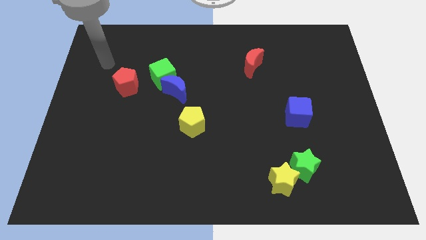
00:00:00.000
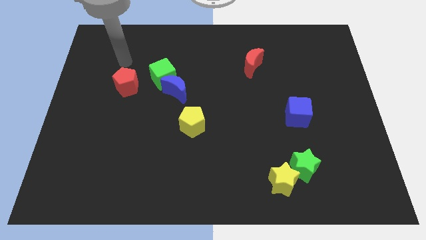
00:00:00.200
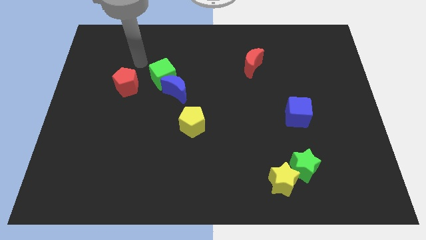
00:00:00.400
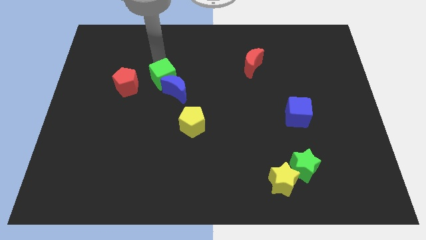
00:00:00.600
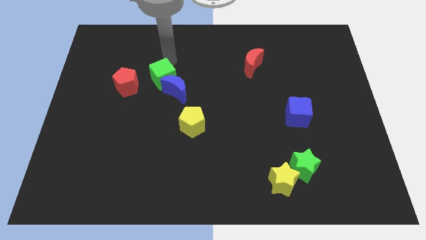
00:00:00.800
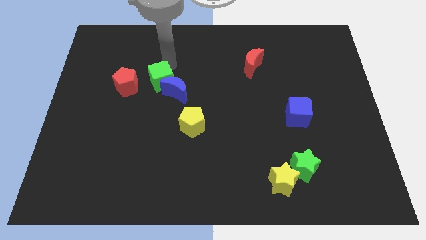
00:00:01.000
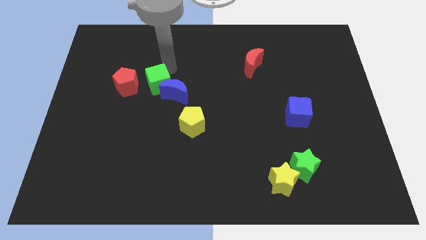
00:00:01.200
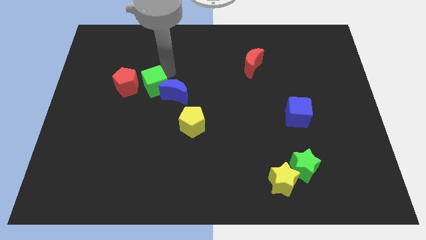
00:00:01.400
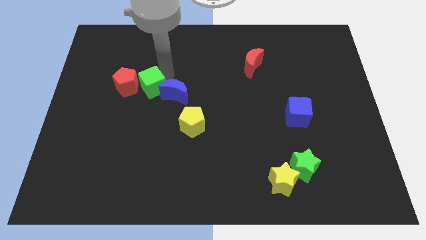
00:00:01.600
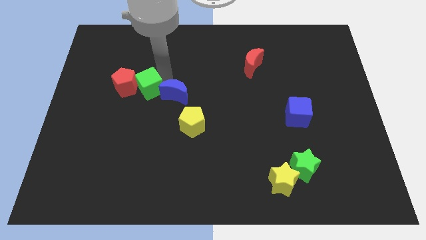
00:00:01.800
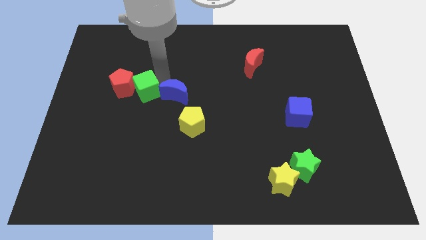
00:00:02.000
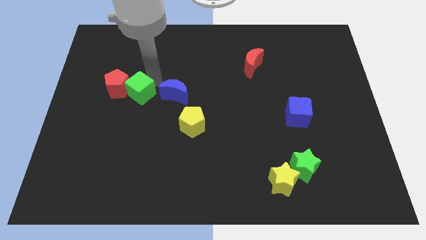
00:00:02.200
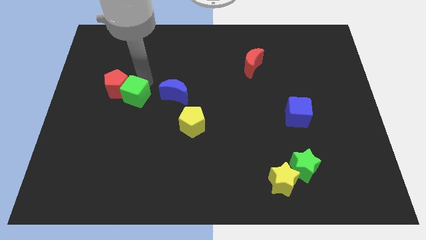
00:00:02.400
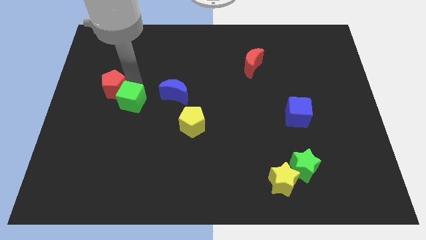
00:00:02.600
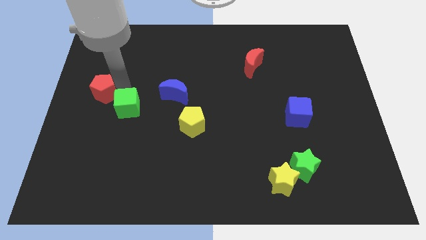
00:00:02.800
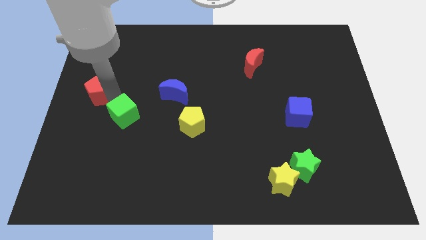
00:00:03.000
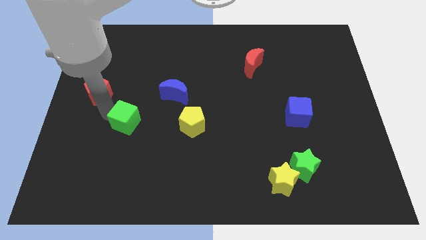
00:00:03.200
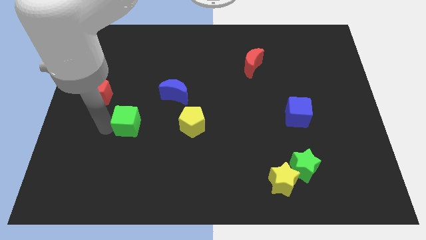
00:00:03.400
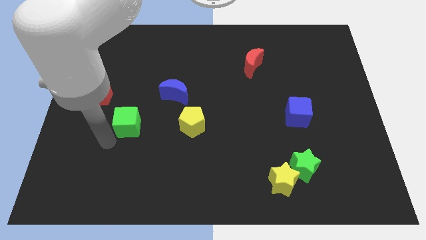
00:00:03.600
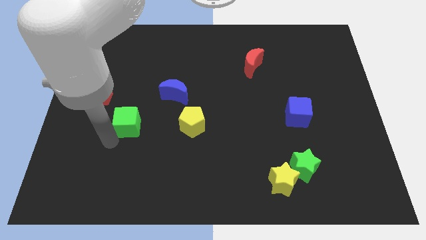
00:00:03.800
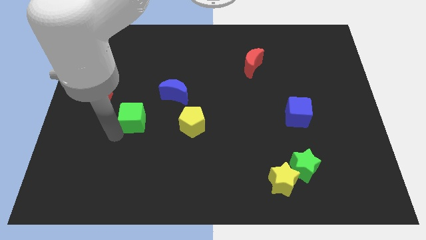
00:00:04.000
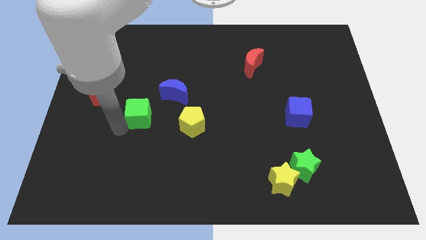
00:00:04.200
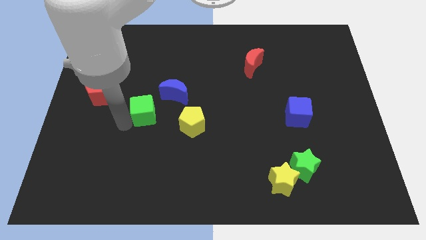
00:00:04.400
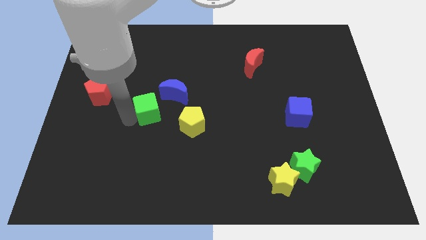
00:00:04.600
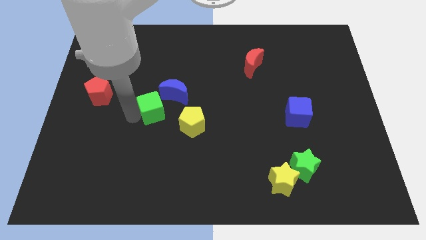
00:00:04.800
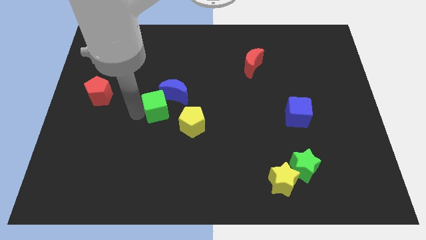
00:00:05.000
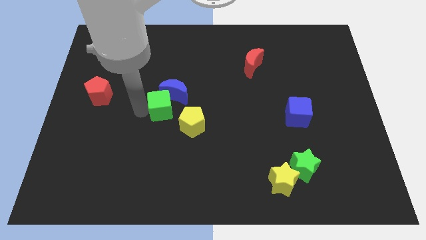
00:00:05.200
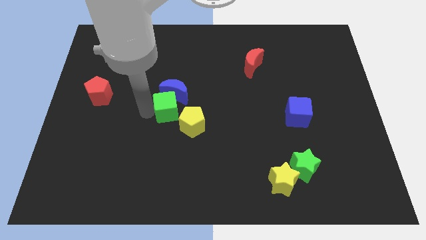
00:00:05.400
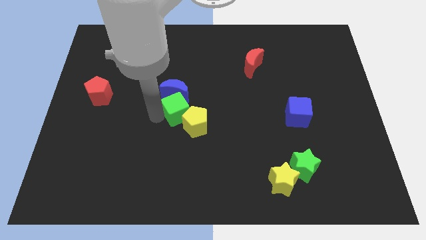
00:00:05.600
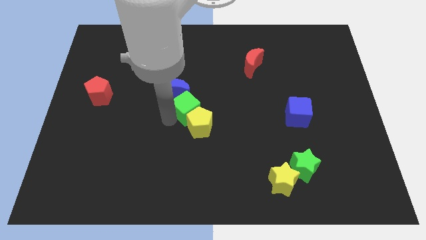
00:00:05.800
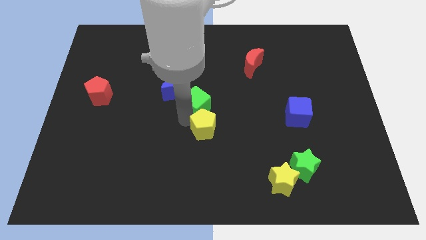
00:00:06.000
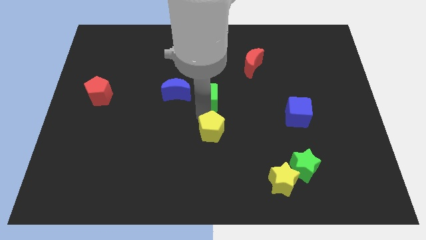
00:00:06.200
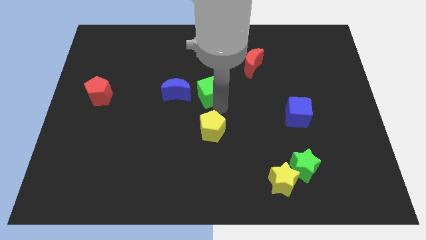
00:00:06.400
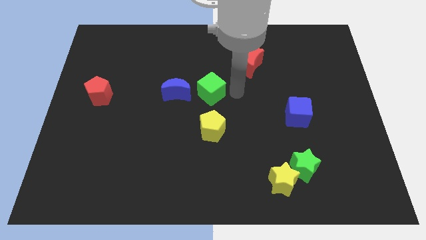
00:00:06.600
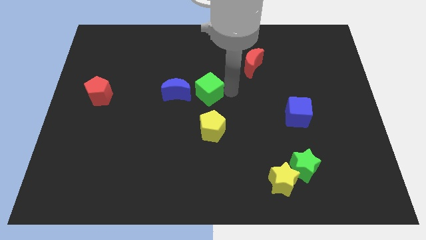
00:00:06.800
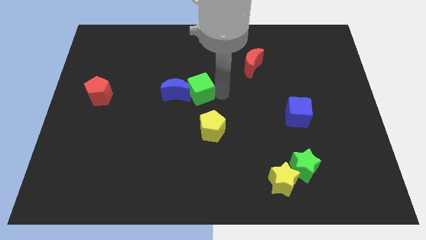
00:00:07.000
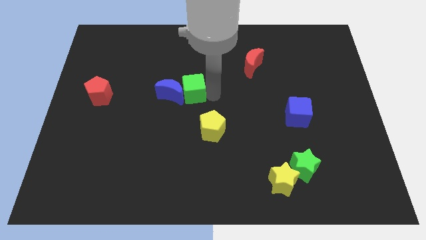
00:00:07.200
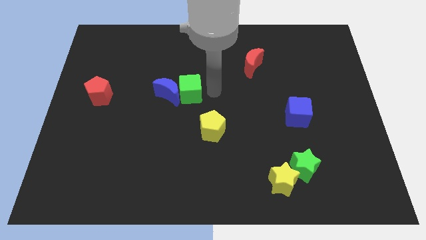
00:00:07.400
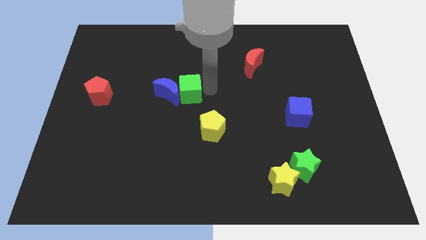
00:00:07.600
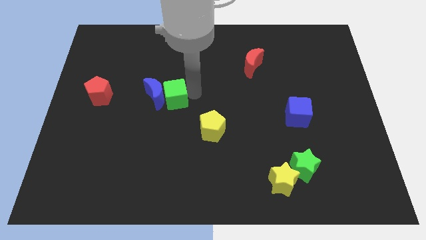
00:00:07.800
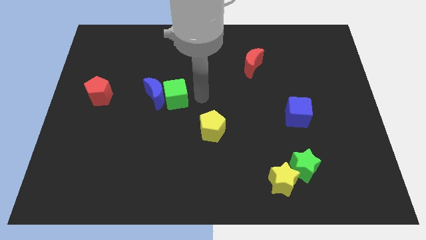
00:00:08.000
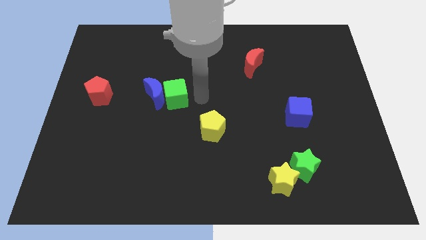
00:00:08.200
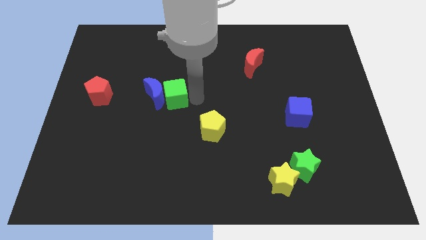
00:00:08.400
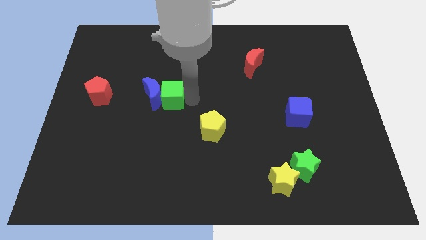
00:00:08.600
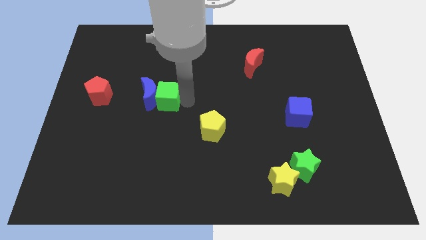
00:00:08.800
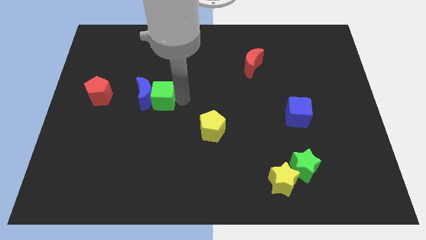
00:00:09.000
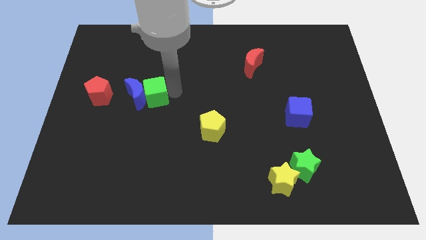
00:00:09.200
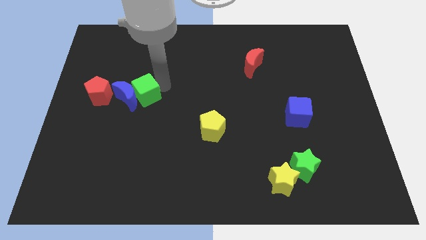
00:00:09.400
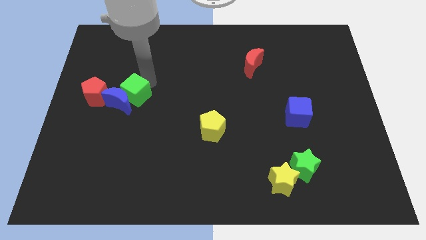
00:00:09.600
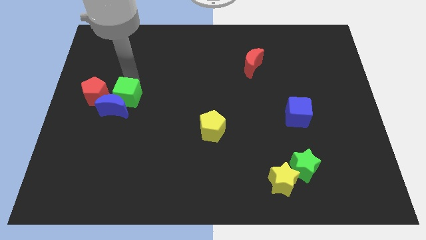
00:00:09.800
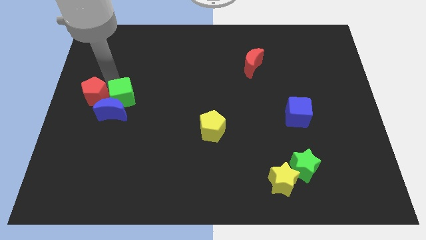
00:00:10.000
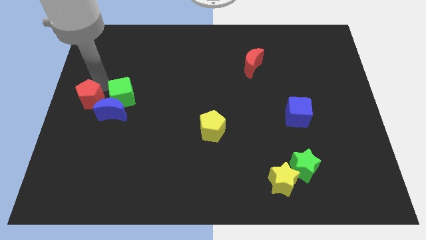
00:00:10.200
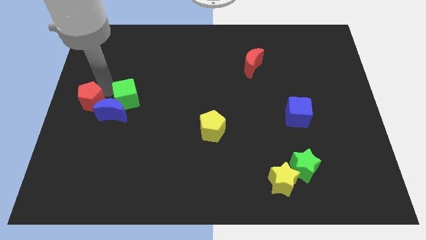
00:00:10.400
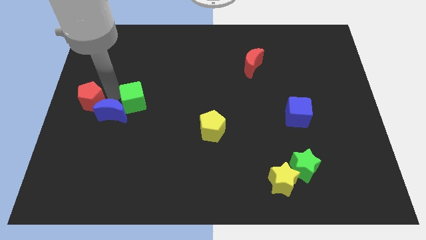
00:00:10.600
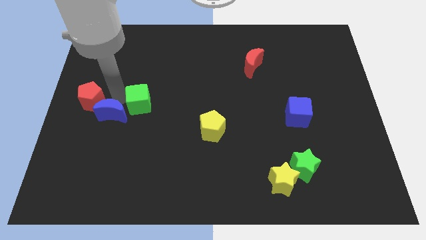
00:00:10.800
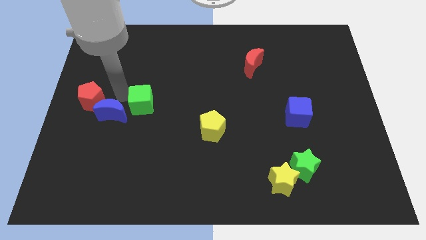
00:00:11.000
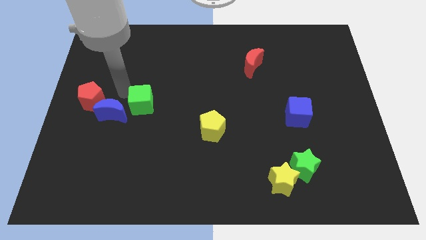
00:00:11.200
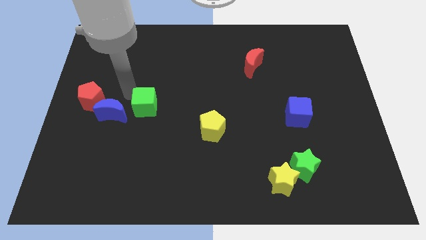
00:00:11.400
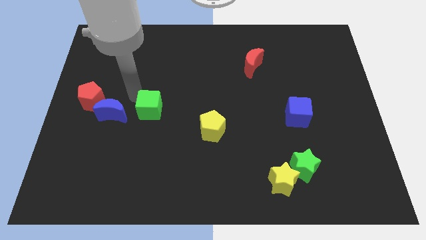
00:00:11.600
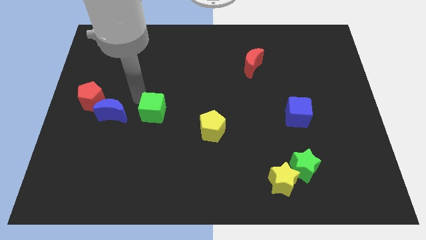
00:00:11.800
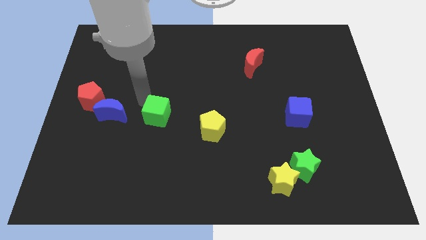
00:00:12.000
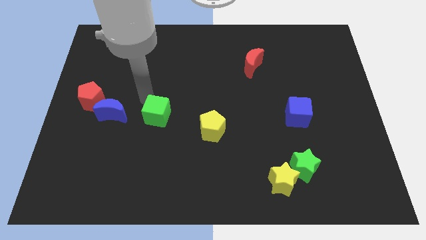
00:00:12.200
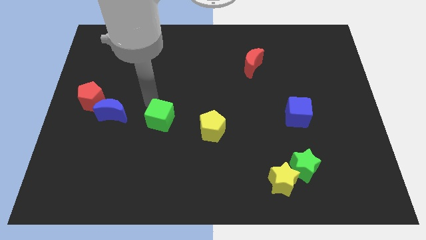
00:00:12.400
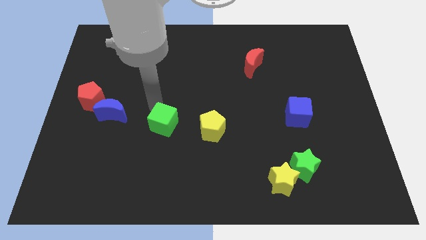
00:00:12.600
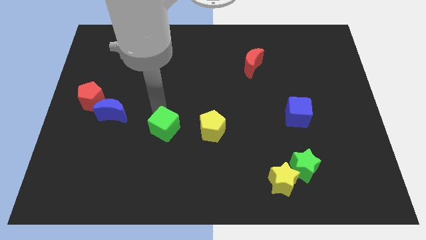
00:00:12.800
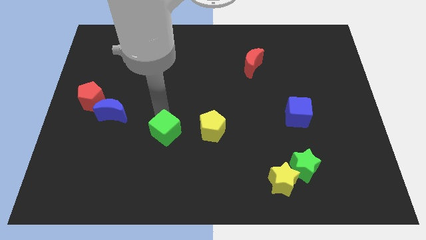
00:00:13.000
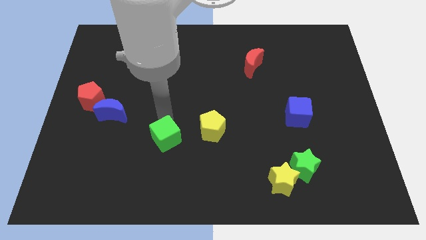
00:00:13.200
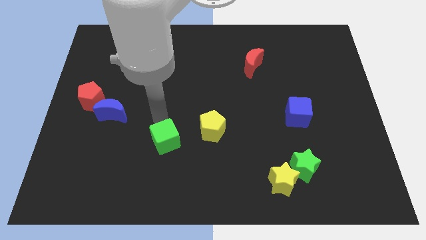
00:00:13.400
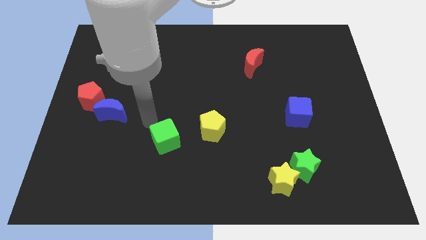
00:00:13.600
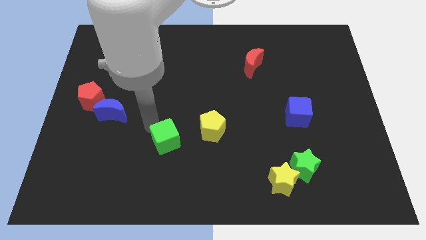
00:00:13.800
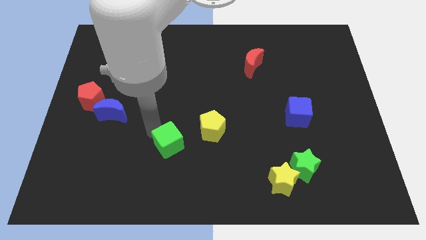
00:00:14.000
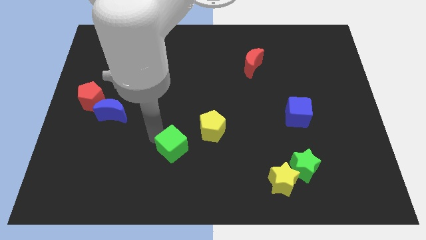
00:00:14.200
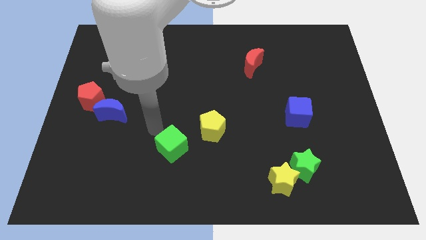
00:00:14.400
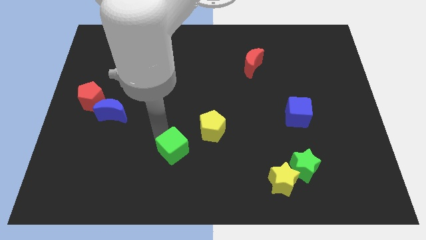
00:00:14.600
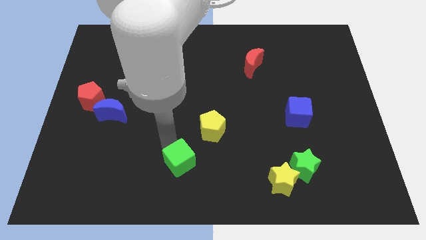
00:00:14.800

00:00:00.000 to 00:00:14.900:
put the green cube to the bottom
